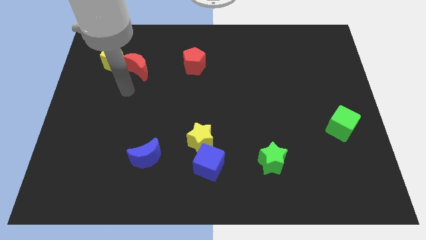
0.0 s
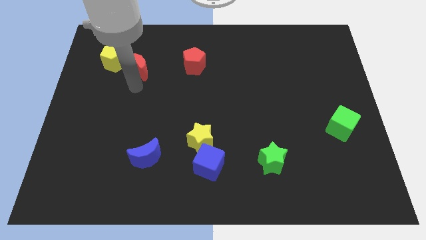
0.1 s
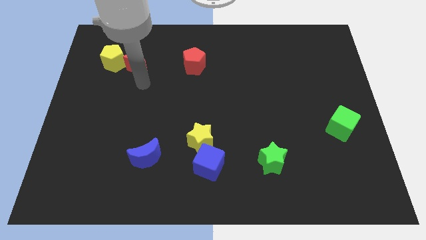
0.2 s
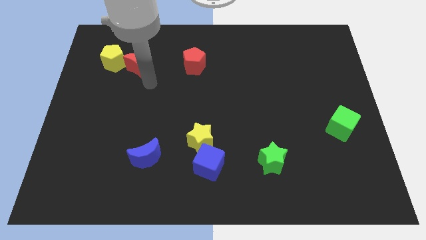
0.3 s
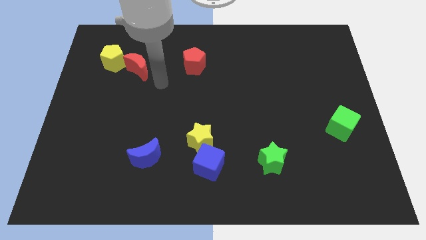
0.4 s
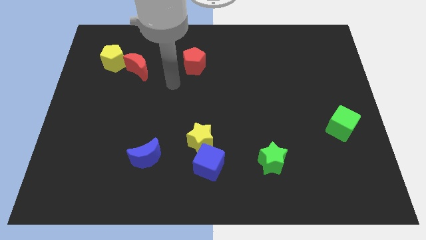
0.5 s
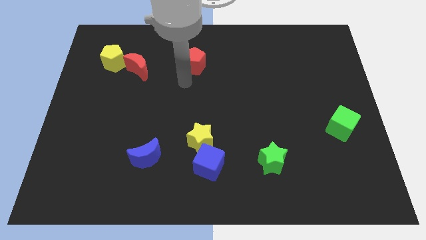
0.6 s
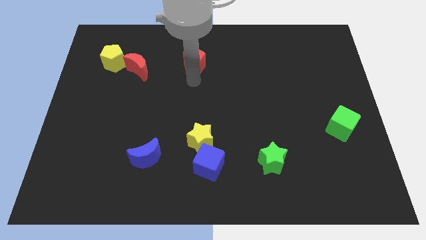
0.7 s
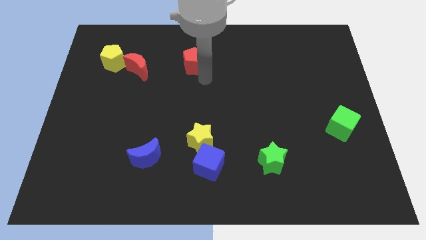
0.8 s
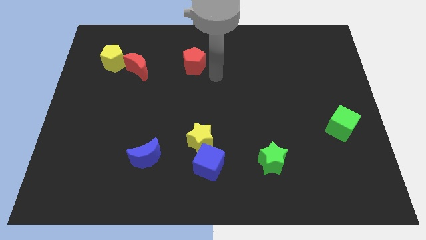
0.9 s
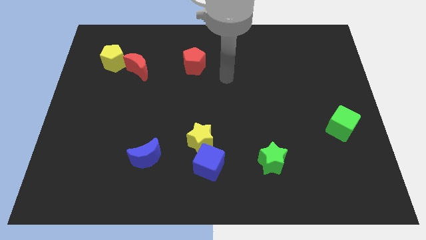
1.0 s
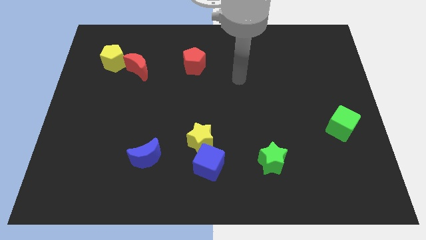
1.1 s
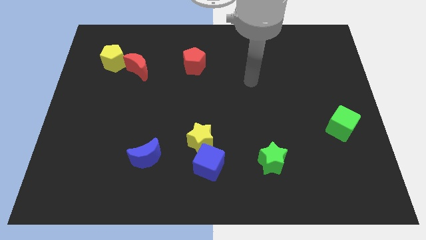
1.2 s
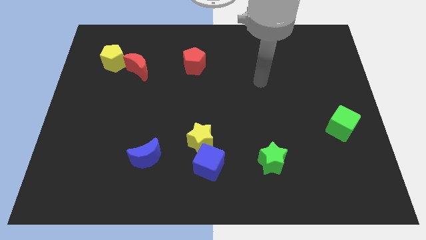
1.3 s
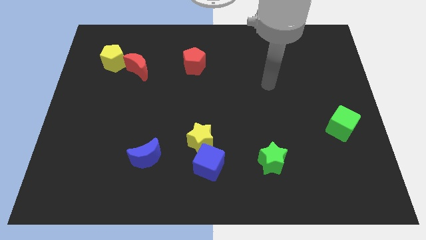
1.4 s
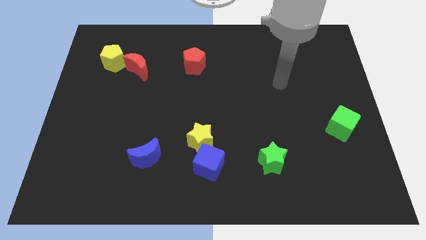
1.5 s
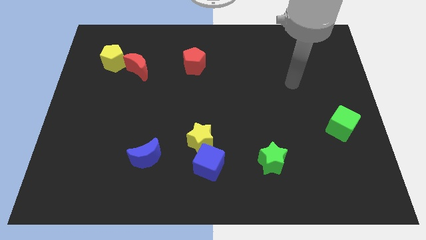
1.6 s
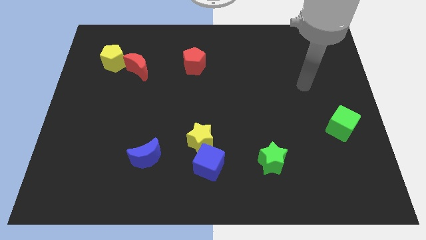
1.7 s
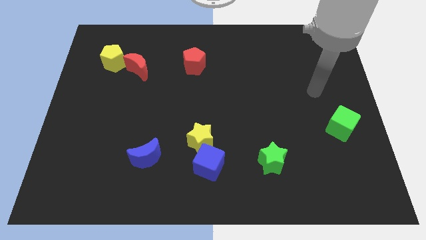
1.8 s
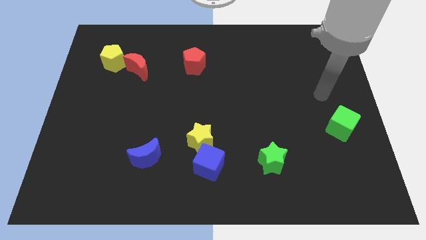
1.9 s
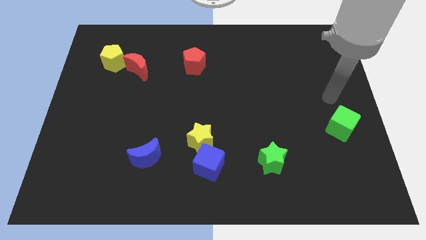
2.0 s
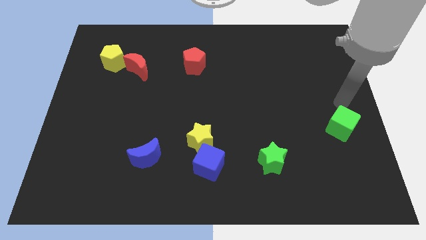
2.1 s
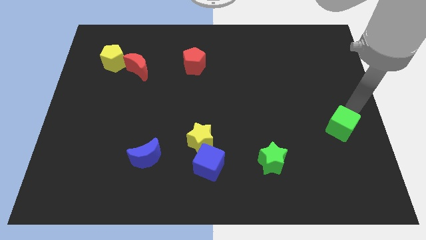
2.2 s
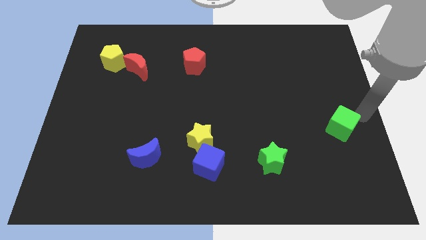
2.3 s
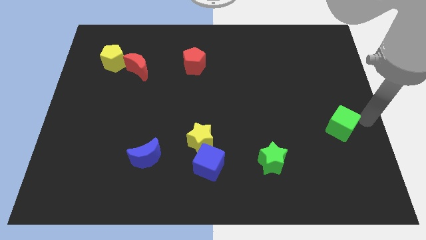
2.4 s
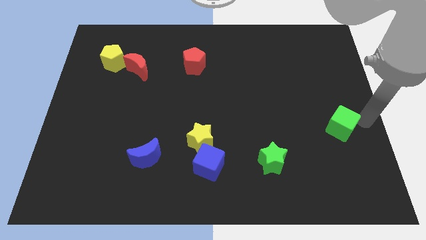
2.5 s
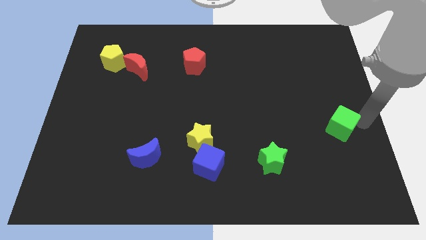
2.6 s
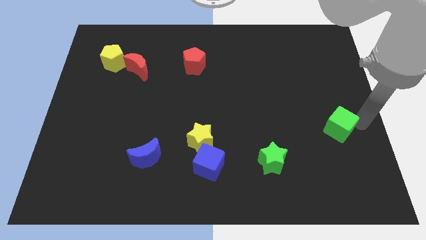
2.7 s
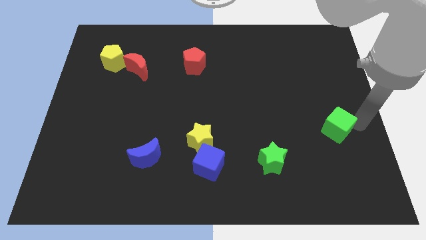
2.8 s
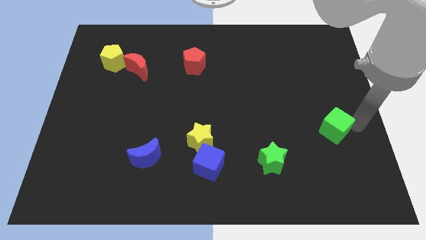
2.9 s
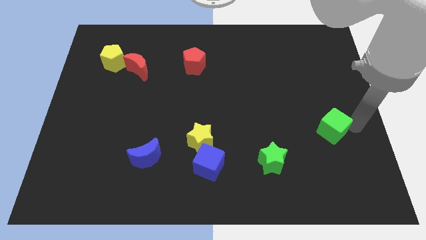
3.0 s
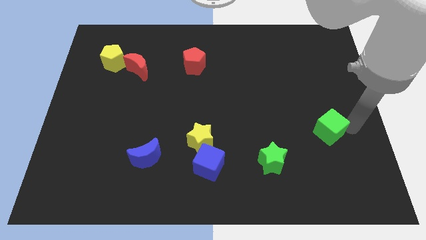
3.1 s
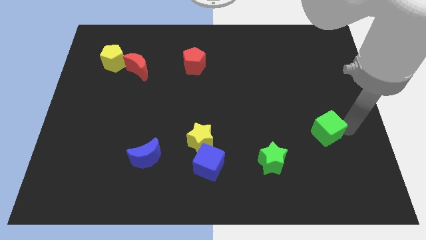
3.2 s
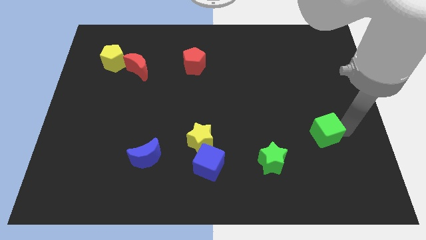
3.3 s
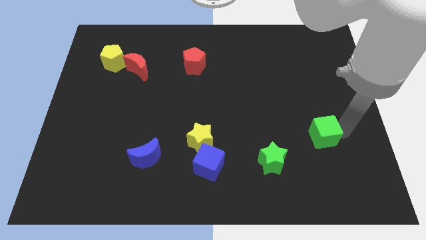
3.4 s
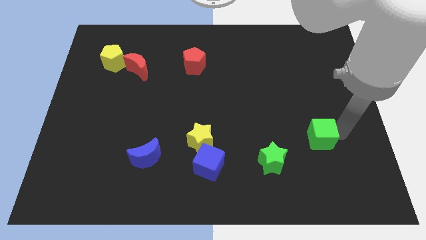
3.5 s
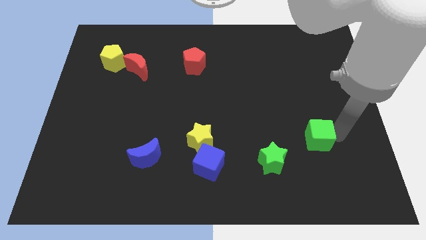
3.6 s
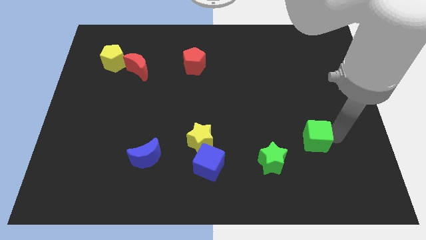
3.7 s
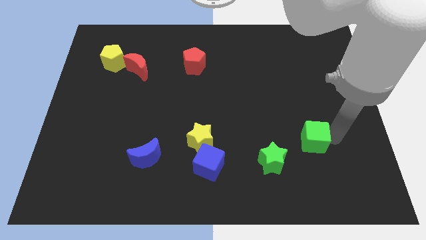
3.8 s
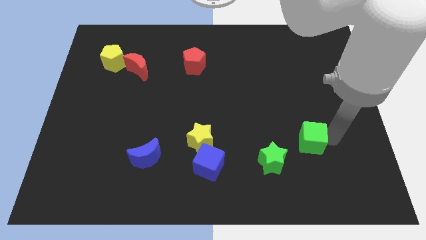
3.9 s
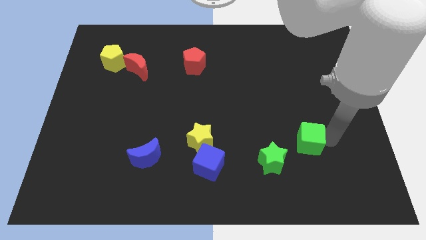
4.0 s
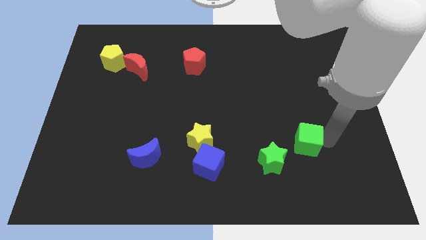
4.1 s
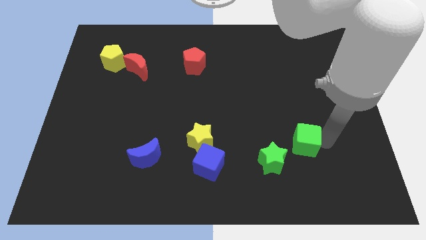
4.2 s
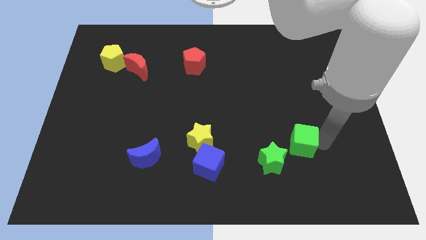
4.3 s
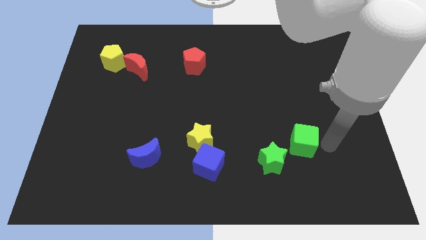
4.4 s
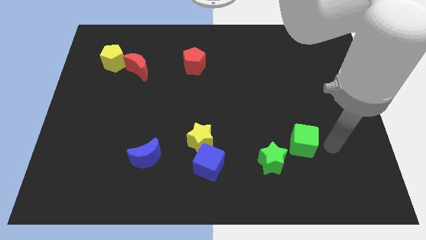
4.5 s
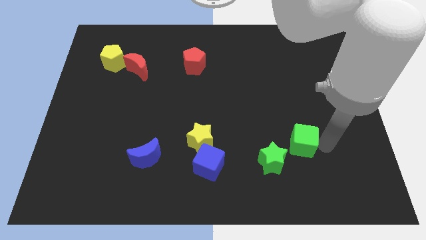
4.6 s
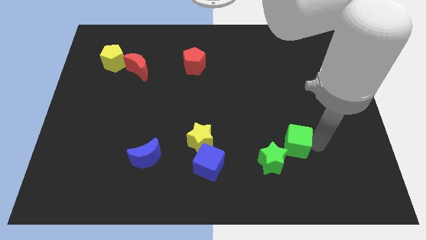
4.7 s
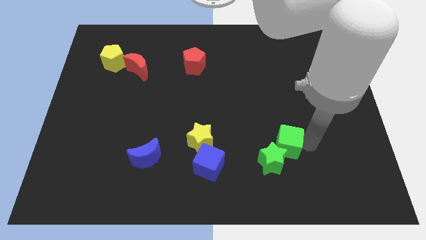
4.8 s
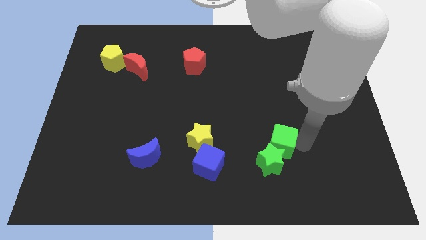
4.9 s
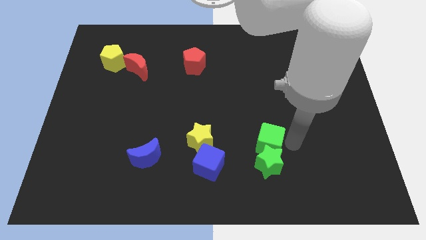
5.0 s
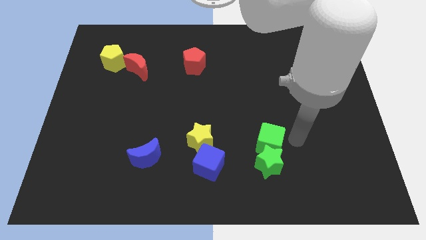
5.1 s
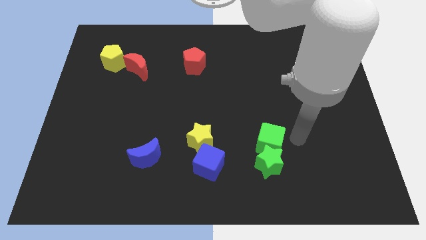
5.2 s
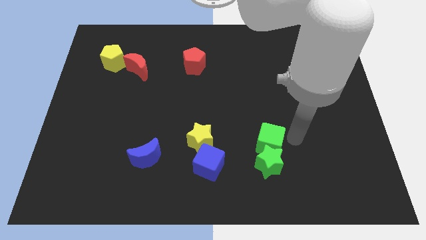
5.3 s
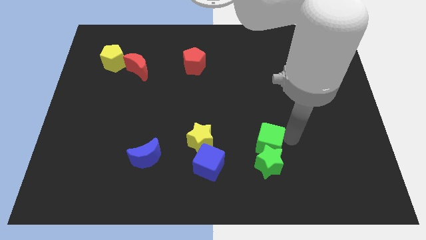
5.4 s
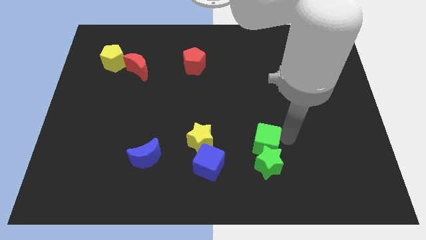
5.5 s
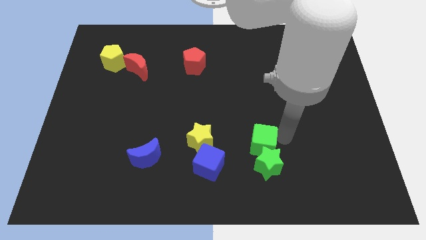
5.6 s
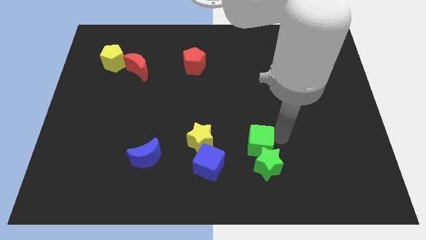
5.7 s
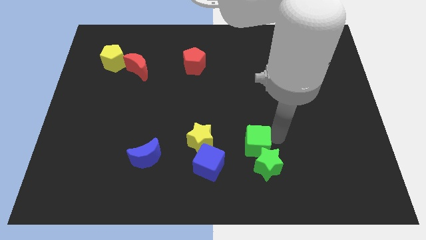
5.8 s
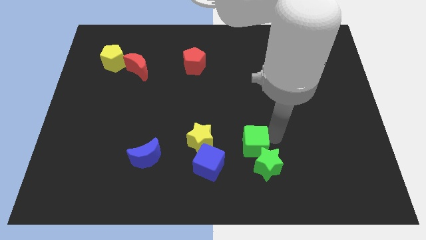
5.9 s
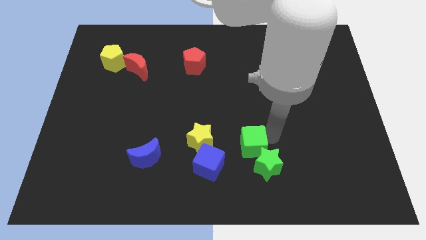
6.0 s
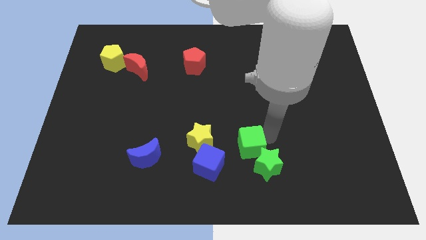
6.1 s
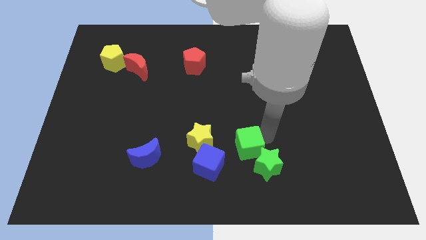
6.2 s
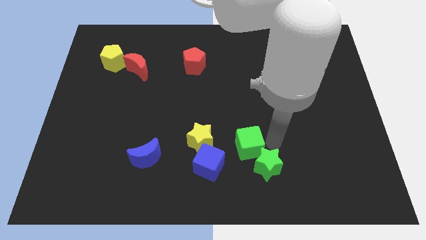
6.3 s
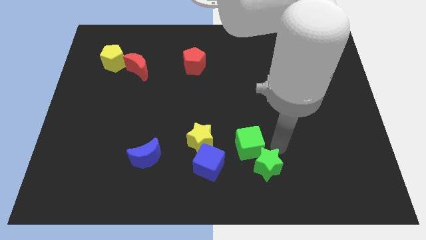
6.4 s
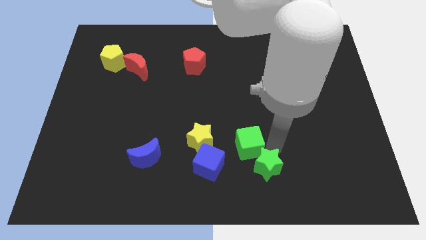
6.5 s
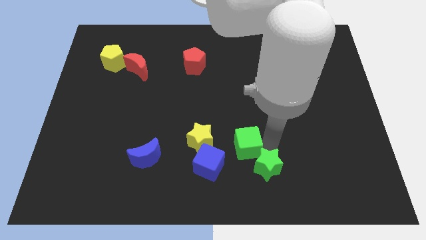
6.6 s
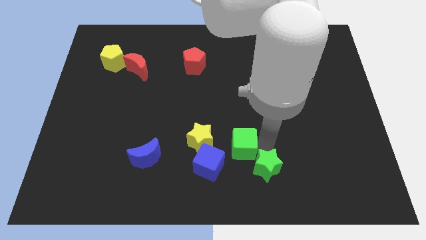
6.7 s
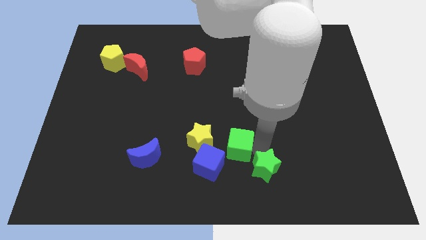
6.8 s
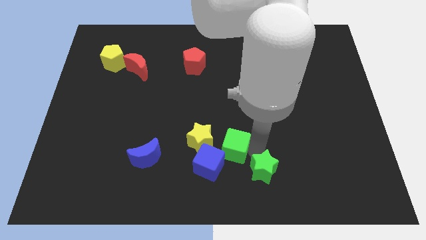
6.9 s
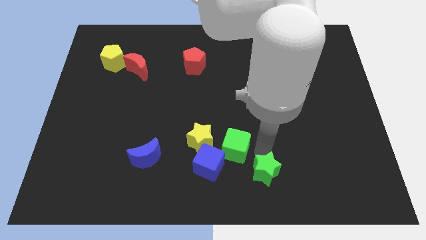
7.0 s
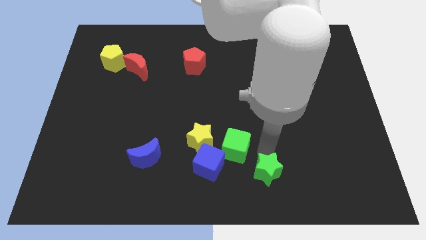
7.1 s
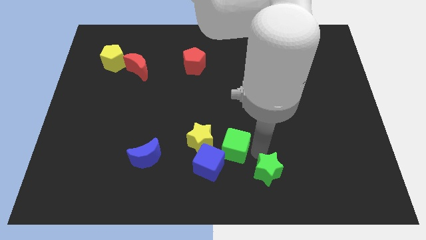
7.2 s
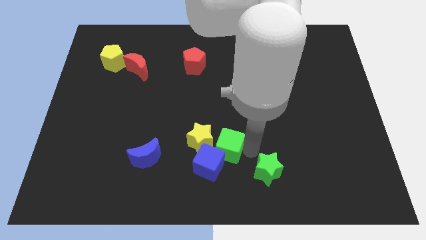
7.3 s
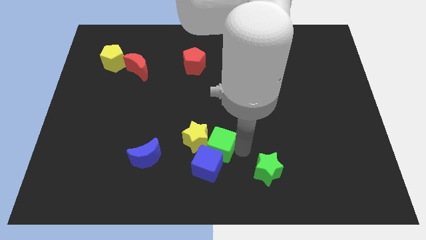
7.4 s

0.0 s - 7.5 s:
push the green cube next to the yellow star
